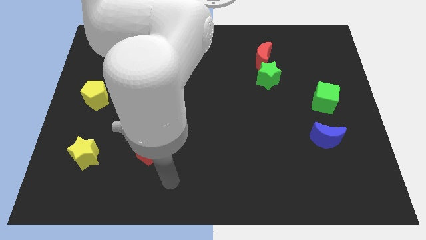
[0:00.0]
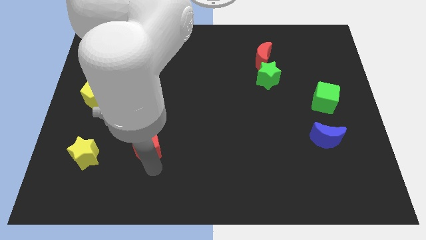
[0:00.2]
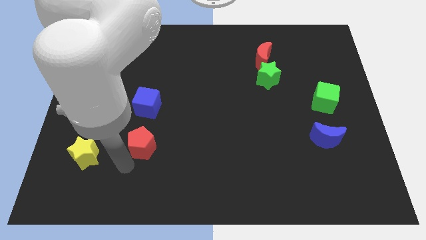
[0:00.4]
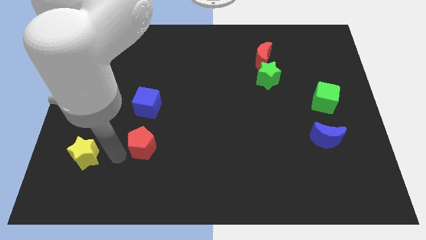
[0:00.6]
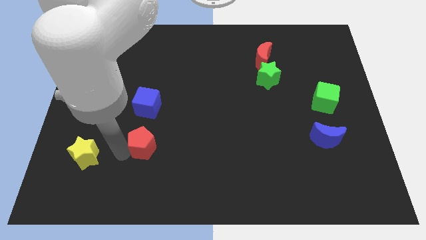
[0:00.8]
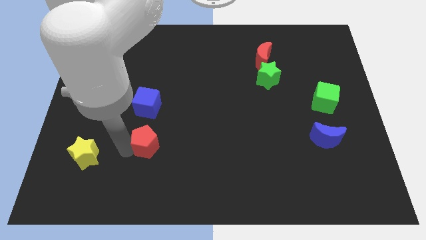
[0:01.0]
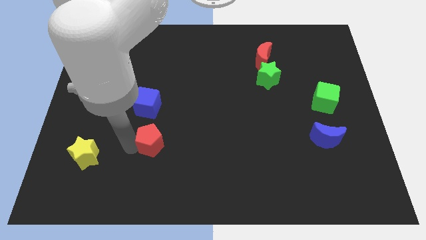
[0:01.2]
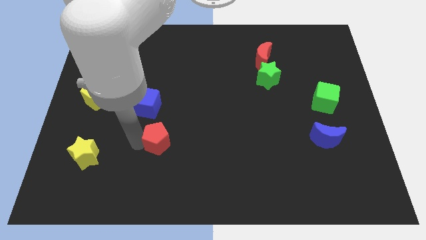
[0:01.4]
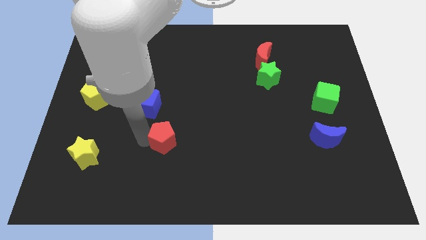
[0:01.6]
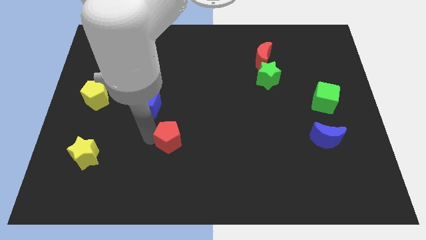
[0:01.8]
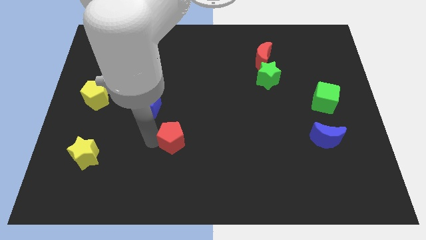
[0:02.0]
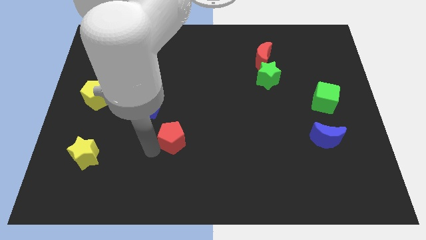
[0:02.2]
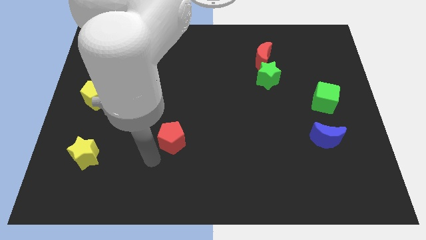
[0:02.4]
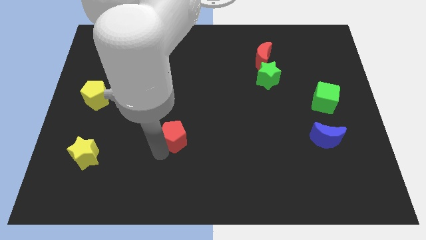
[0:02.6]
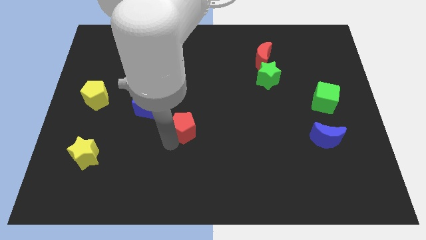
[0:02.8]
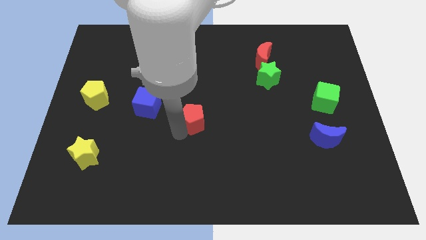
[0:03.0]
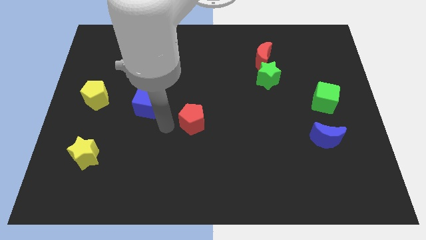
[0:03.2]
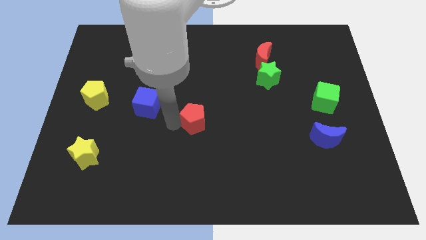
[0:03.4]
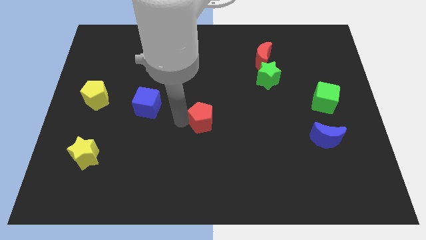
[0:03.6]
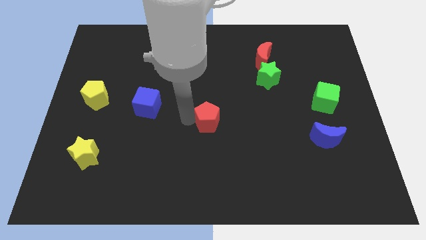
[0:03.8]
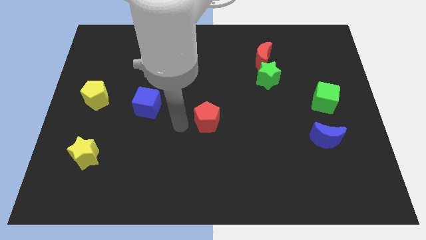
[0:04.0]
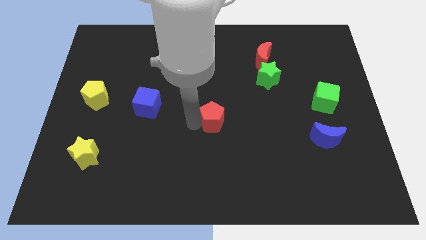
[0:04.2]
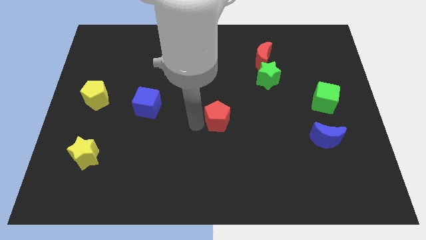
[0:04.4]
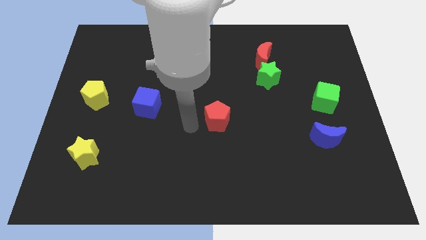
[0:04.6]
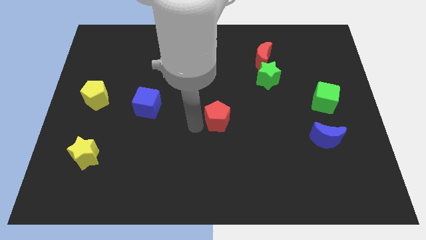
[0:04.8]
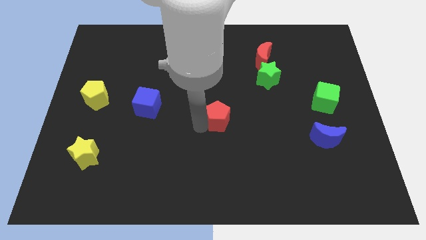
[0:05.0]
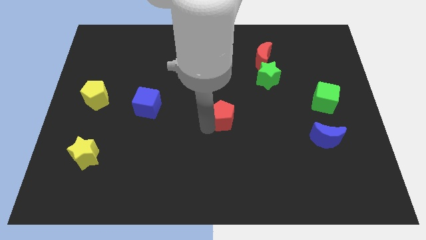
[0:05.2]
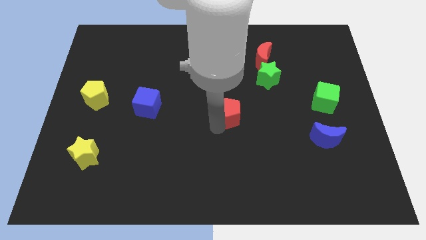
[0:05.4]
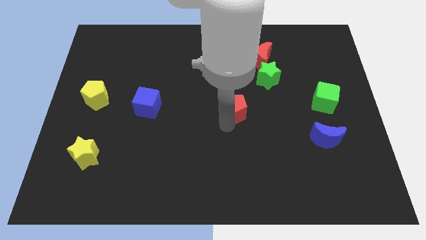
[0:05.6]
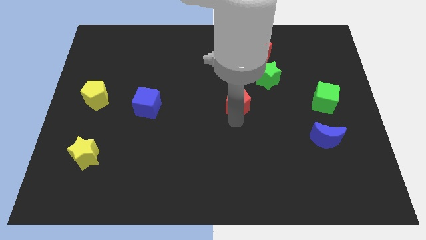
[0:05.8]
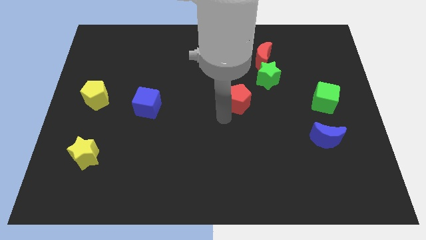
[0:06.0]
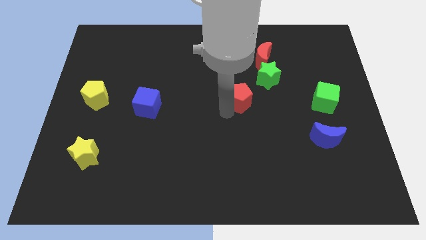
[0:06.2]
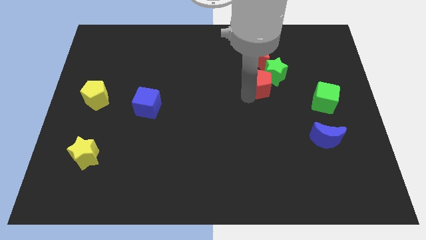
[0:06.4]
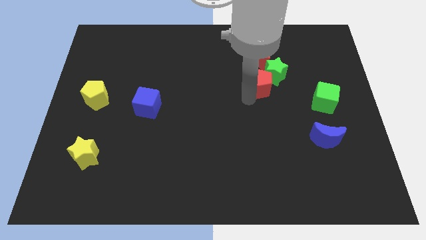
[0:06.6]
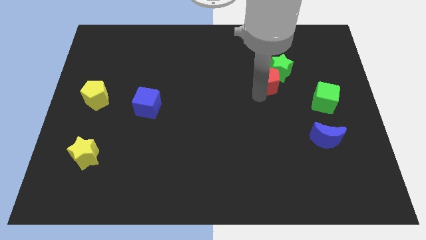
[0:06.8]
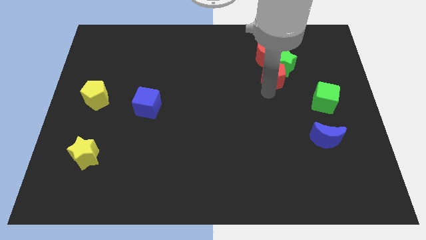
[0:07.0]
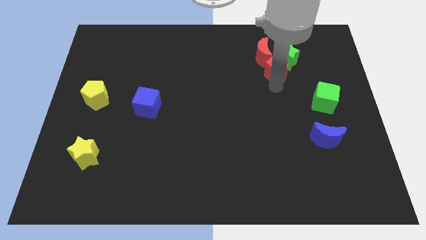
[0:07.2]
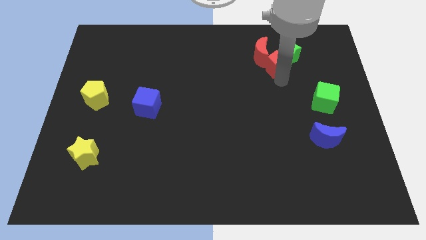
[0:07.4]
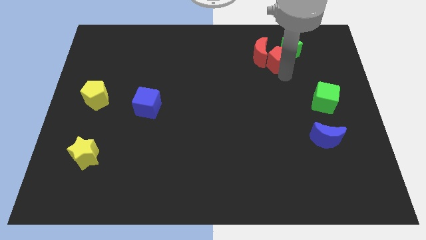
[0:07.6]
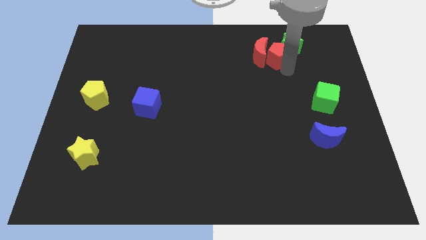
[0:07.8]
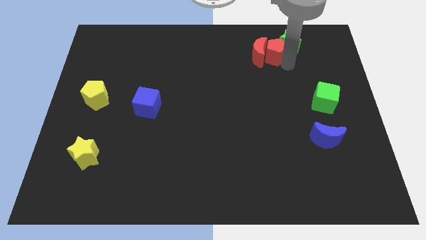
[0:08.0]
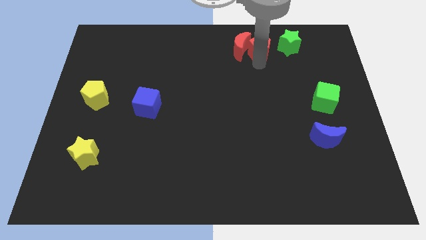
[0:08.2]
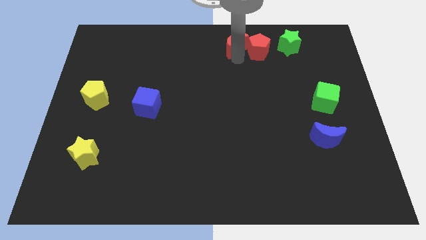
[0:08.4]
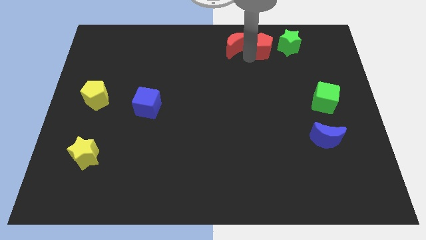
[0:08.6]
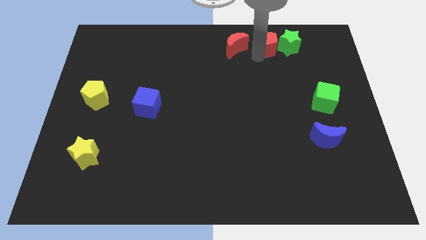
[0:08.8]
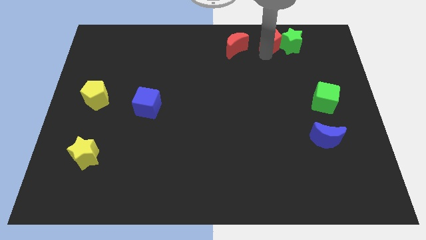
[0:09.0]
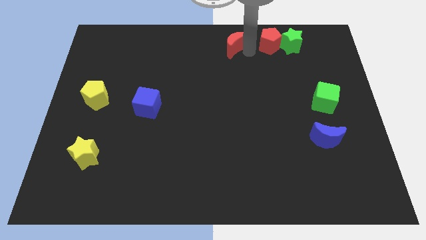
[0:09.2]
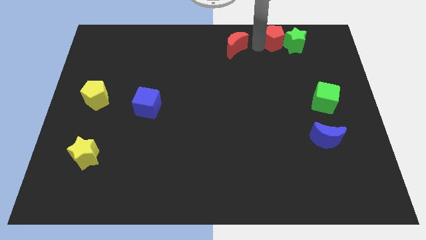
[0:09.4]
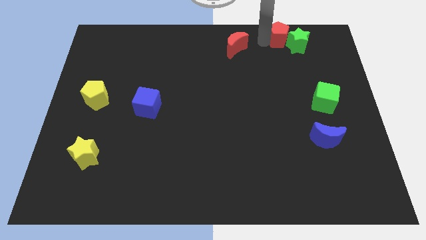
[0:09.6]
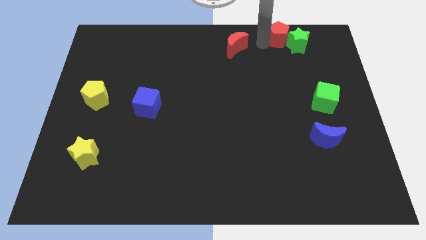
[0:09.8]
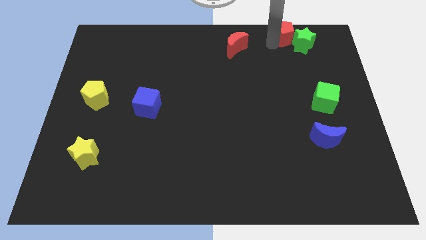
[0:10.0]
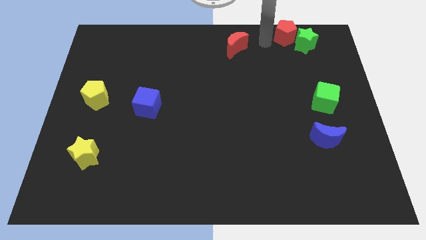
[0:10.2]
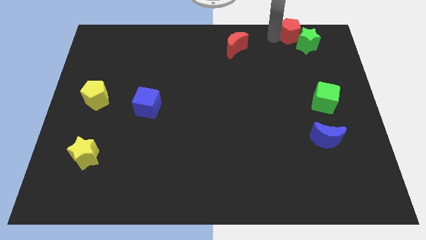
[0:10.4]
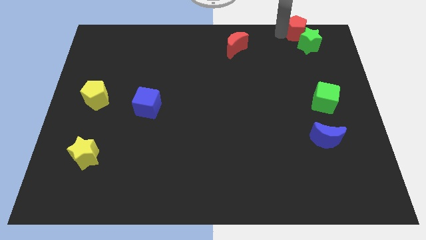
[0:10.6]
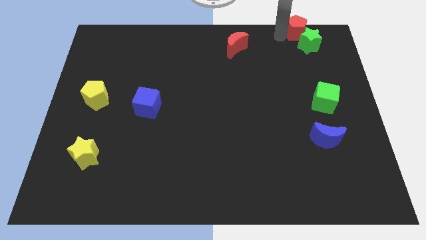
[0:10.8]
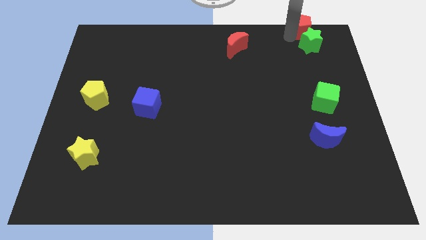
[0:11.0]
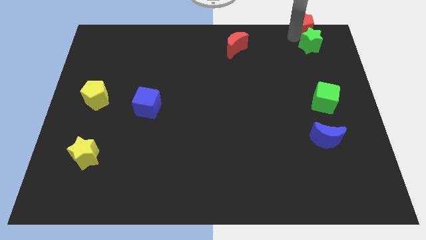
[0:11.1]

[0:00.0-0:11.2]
move the red pentagon to the top right of the board
